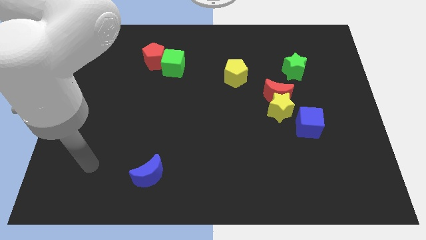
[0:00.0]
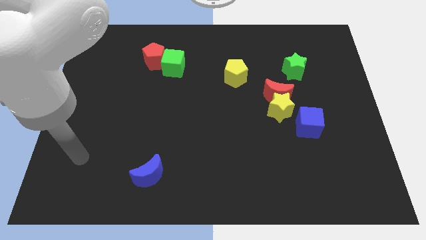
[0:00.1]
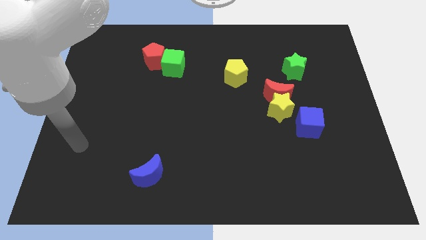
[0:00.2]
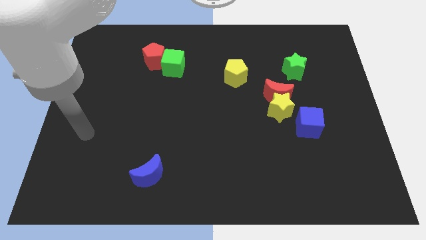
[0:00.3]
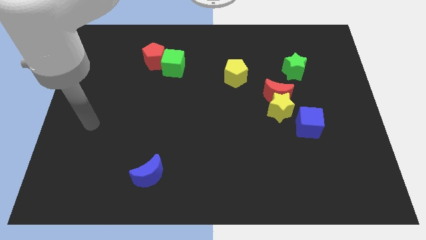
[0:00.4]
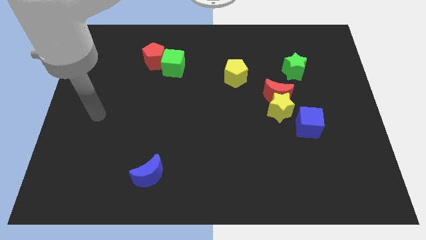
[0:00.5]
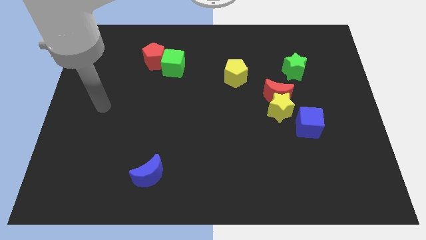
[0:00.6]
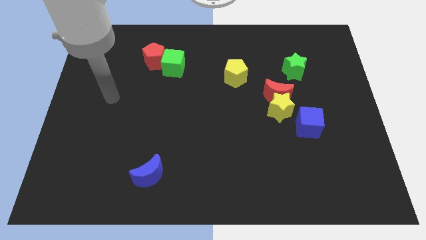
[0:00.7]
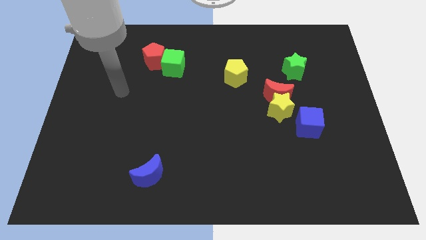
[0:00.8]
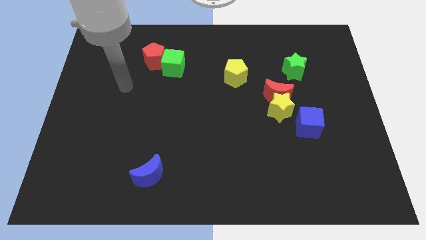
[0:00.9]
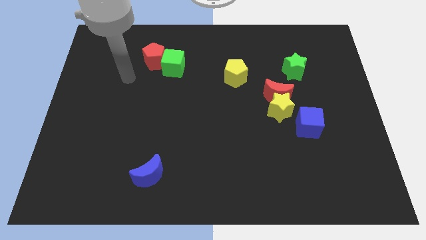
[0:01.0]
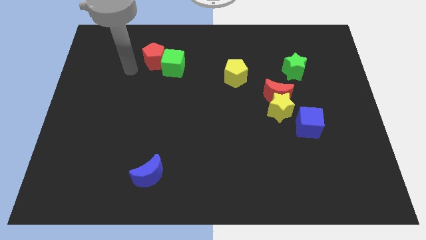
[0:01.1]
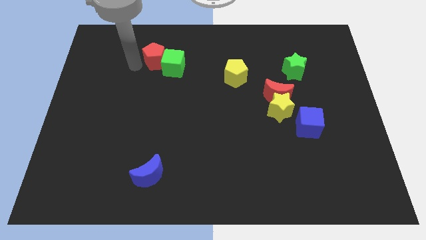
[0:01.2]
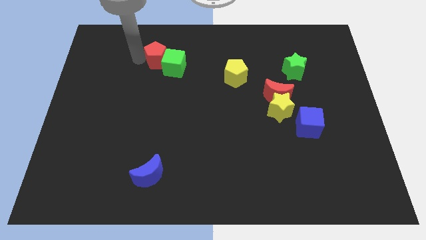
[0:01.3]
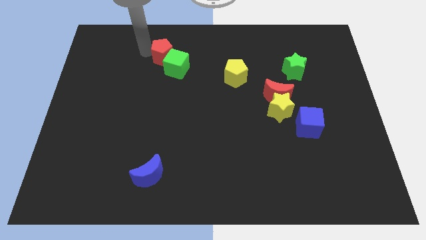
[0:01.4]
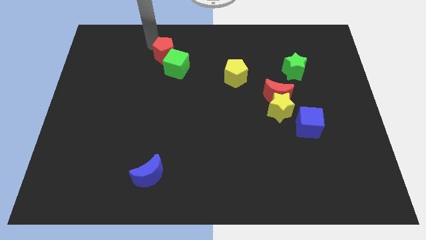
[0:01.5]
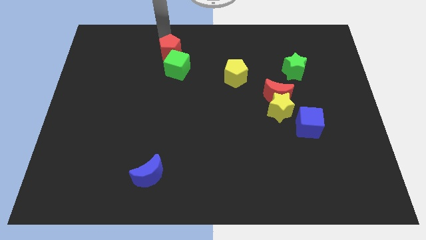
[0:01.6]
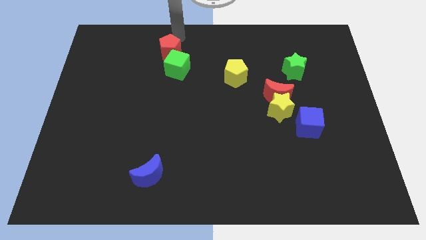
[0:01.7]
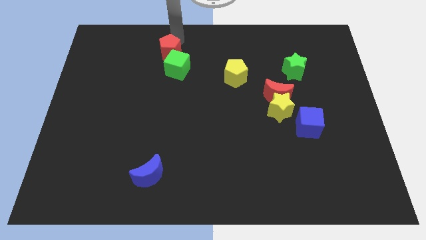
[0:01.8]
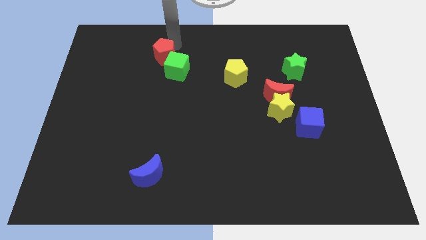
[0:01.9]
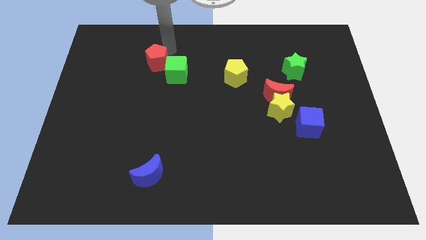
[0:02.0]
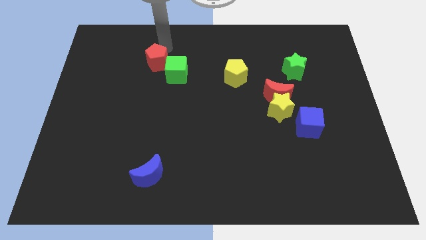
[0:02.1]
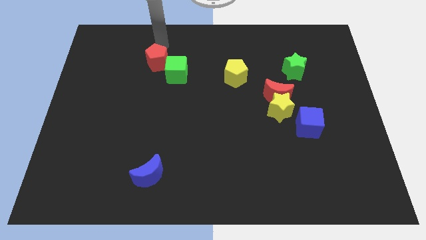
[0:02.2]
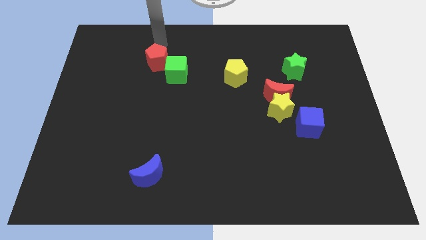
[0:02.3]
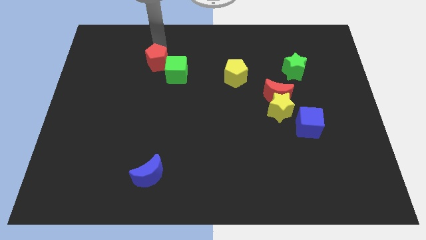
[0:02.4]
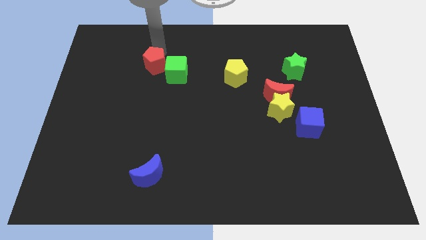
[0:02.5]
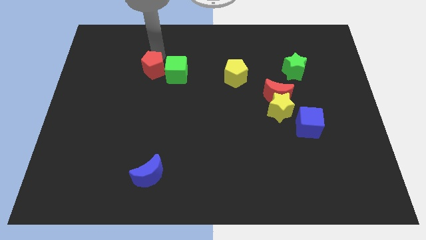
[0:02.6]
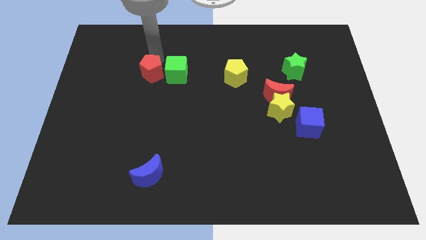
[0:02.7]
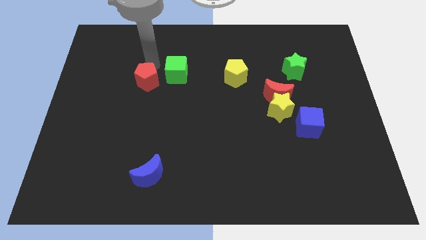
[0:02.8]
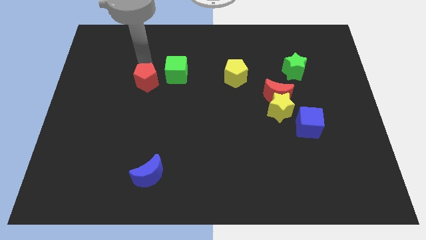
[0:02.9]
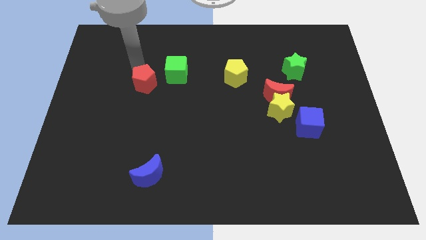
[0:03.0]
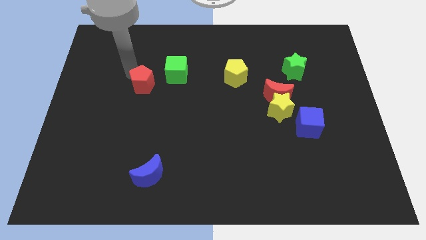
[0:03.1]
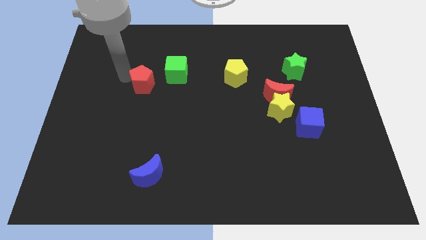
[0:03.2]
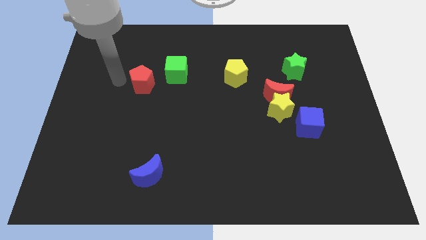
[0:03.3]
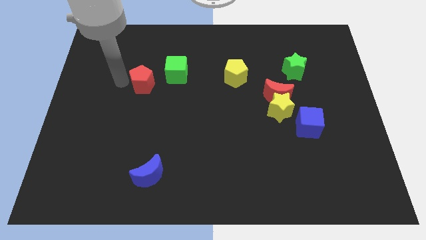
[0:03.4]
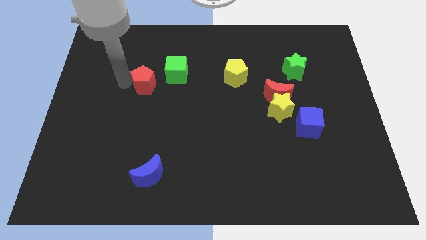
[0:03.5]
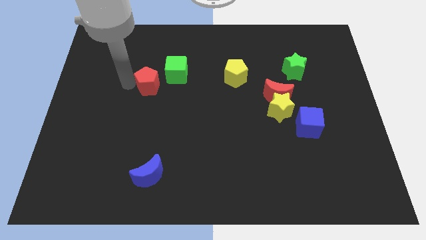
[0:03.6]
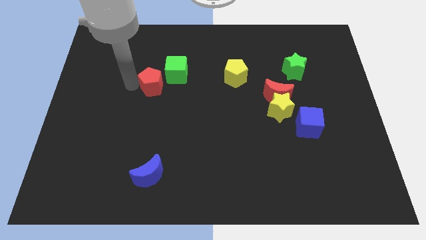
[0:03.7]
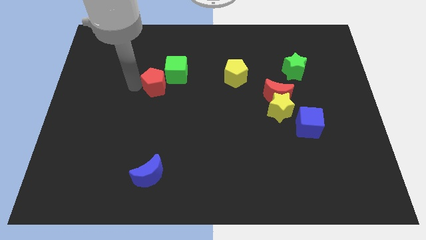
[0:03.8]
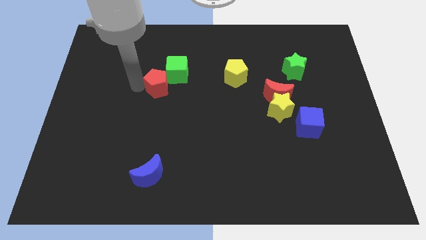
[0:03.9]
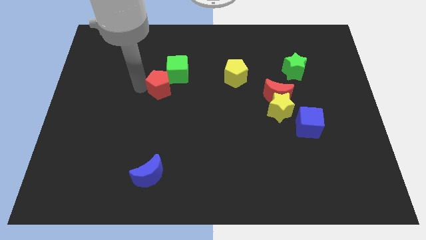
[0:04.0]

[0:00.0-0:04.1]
slightly slide the red pentagon down and then right

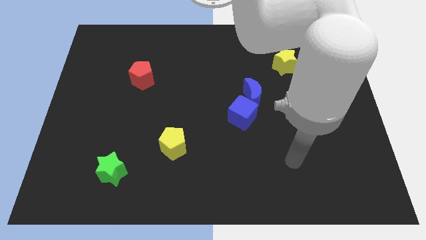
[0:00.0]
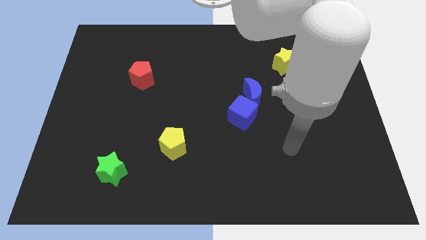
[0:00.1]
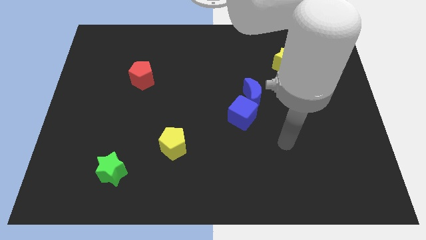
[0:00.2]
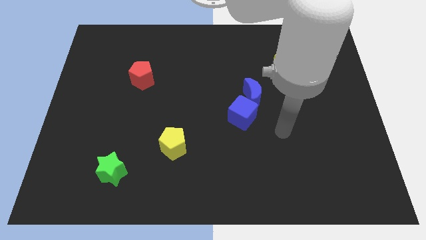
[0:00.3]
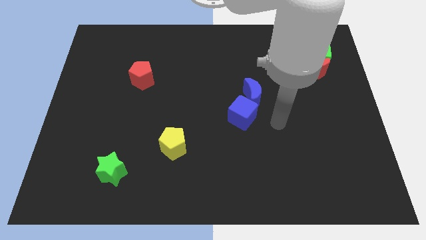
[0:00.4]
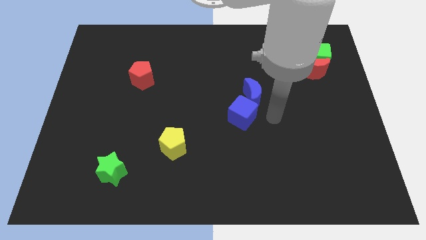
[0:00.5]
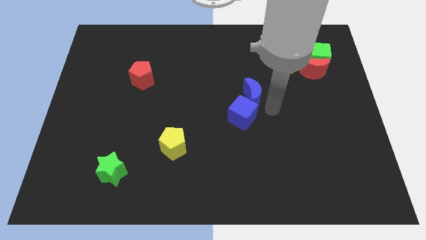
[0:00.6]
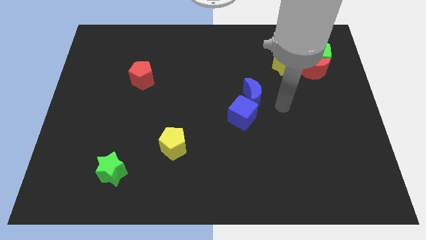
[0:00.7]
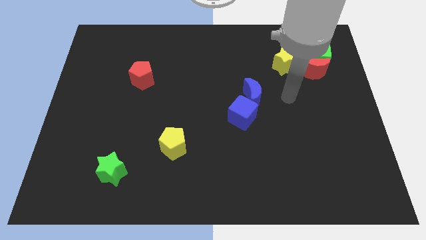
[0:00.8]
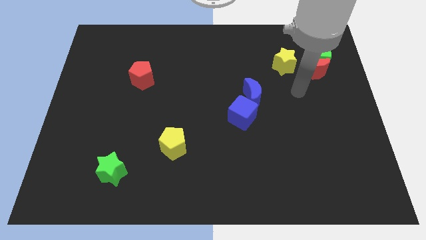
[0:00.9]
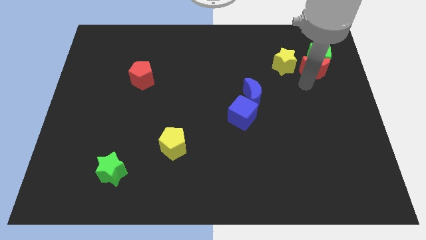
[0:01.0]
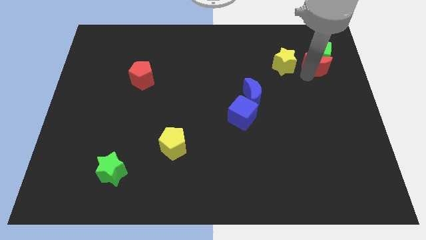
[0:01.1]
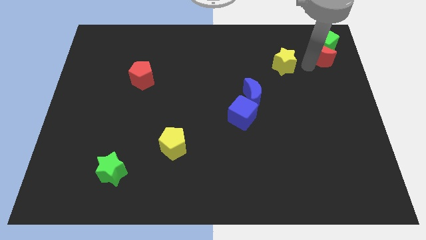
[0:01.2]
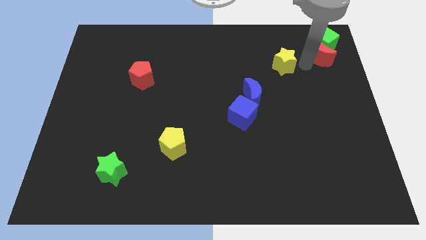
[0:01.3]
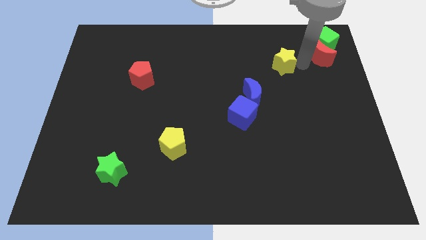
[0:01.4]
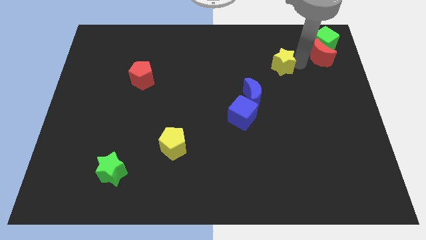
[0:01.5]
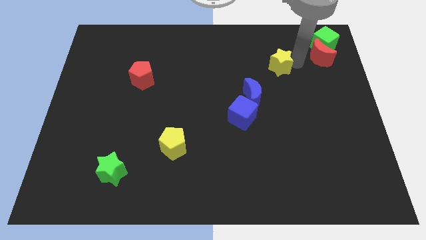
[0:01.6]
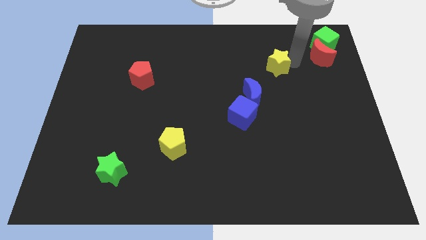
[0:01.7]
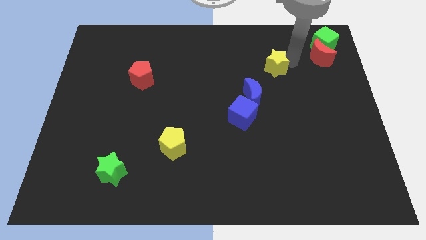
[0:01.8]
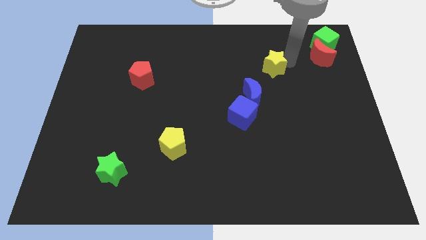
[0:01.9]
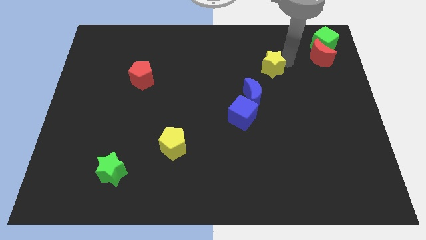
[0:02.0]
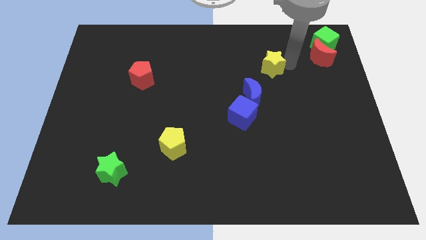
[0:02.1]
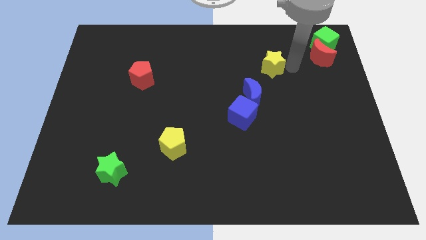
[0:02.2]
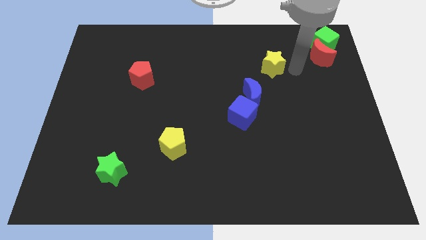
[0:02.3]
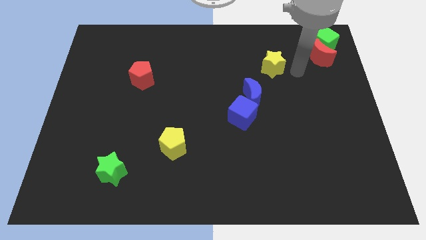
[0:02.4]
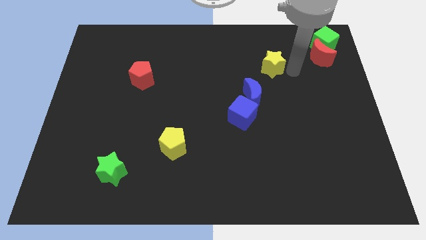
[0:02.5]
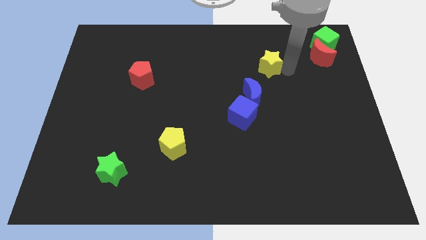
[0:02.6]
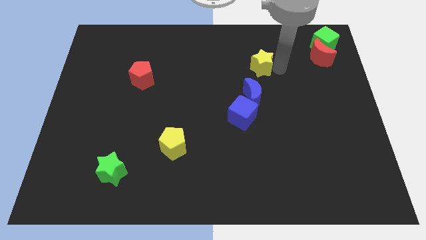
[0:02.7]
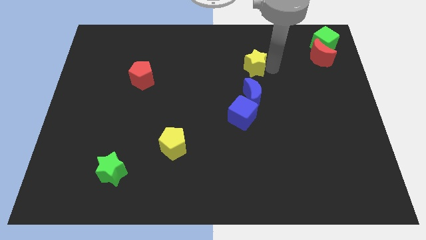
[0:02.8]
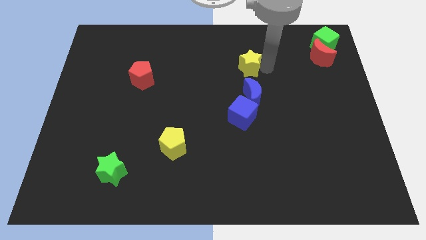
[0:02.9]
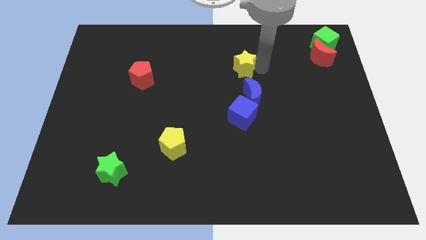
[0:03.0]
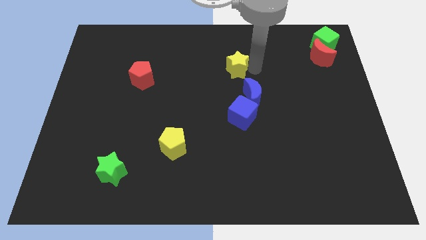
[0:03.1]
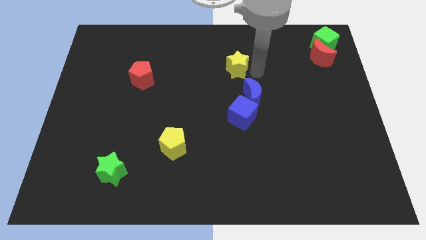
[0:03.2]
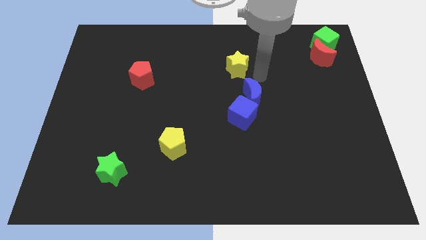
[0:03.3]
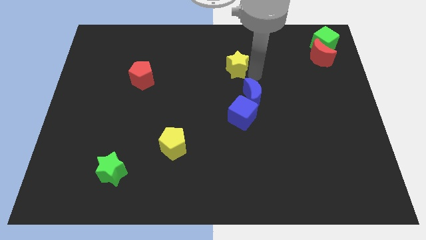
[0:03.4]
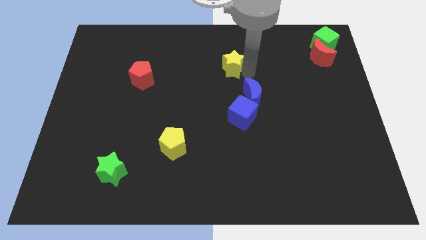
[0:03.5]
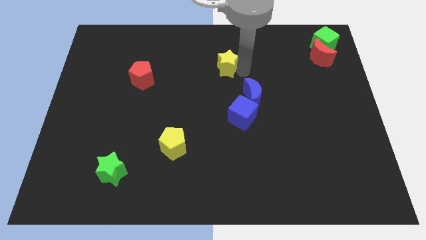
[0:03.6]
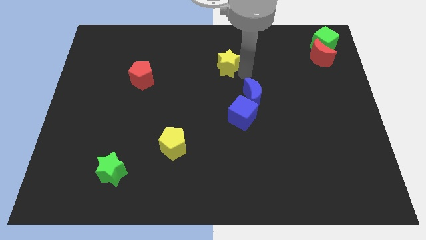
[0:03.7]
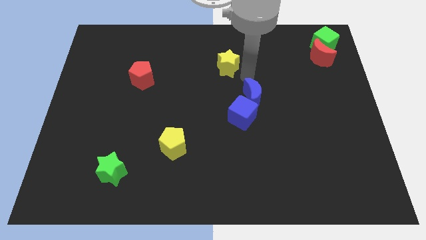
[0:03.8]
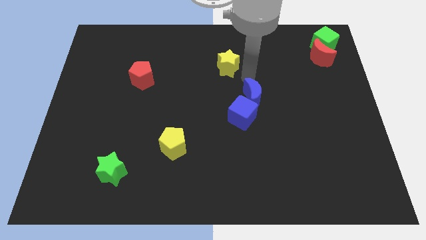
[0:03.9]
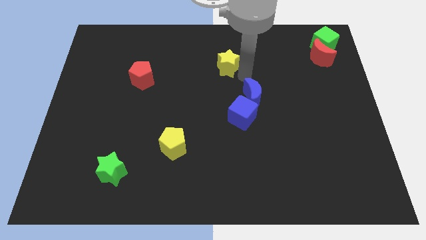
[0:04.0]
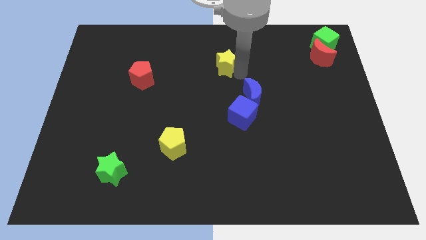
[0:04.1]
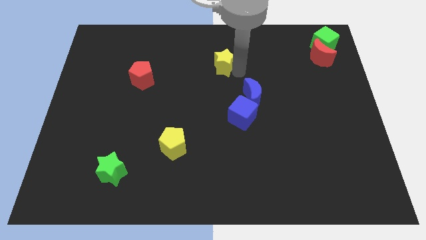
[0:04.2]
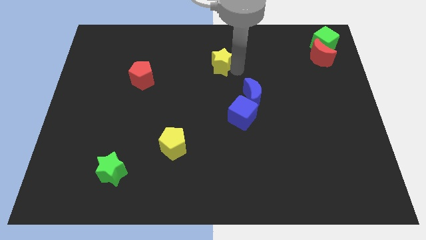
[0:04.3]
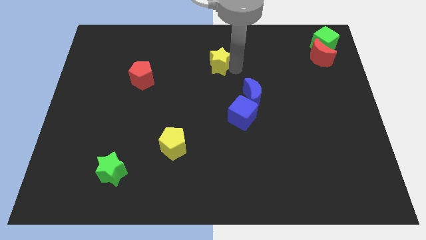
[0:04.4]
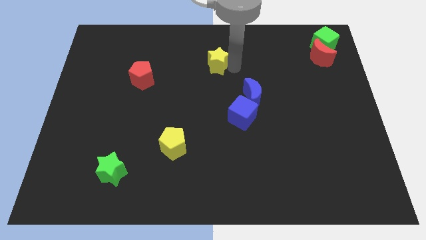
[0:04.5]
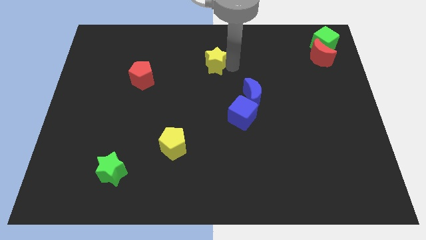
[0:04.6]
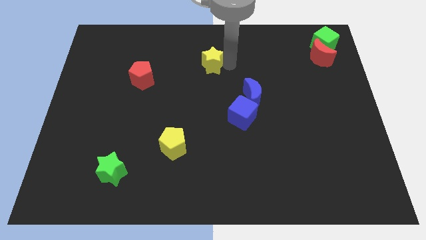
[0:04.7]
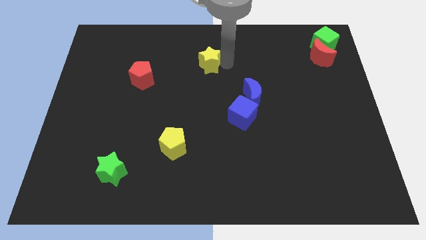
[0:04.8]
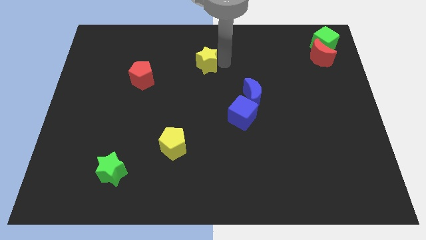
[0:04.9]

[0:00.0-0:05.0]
push the yellow star left
